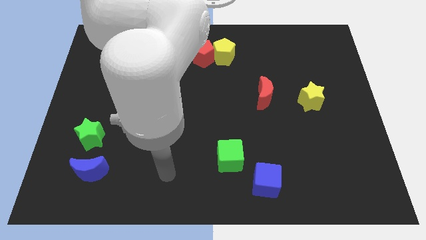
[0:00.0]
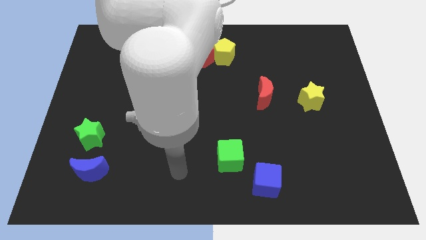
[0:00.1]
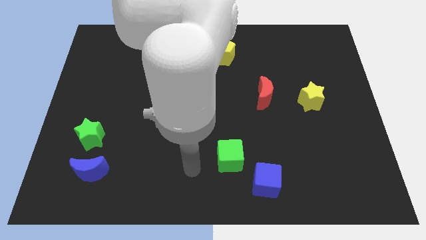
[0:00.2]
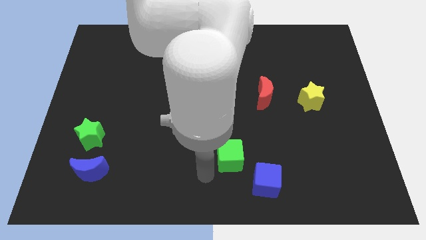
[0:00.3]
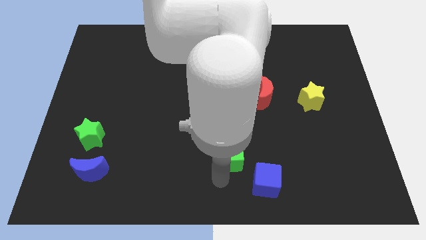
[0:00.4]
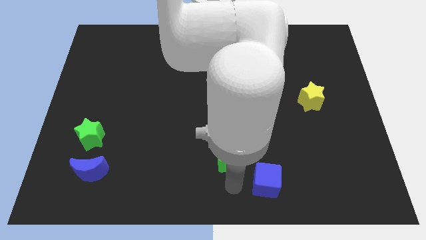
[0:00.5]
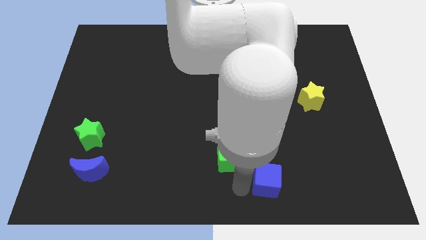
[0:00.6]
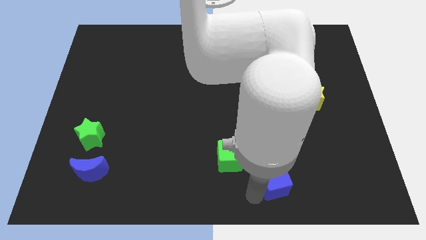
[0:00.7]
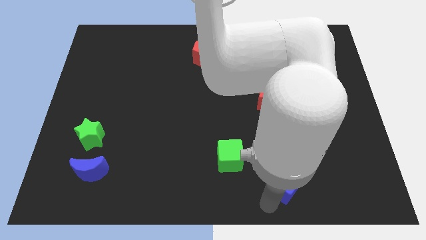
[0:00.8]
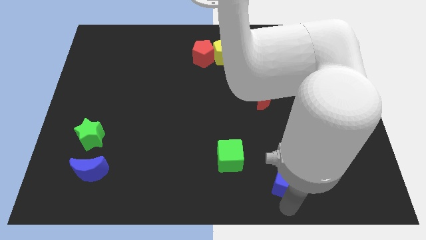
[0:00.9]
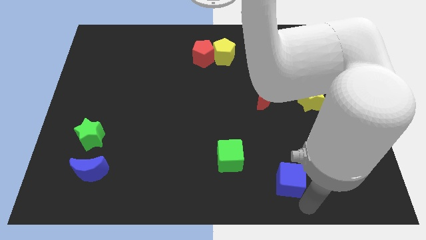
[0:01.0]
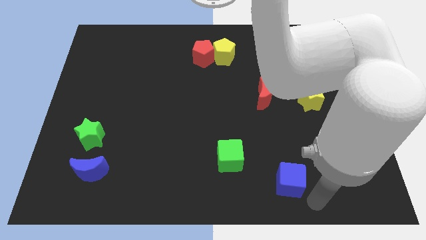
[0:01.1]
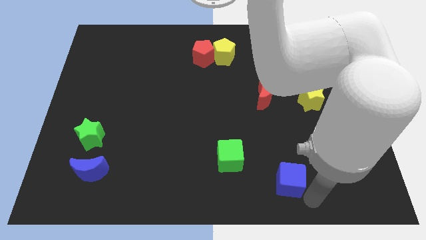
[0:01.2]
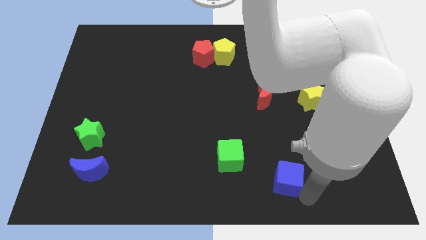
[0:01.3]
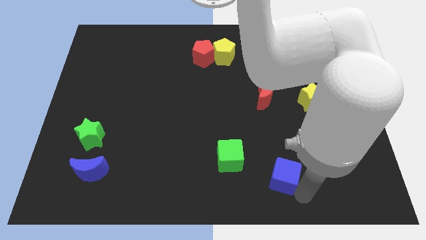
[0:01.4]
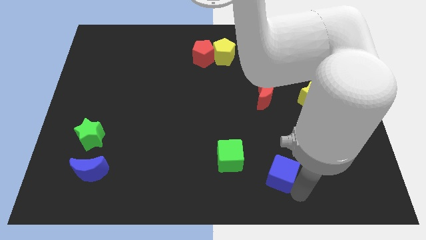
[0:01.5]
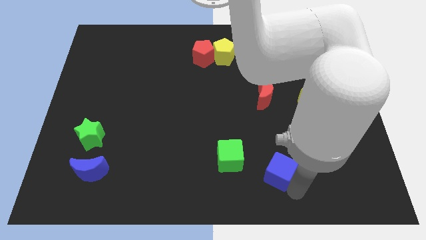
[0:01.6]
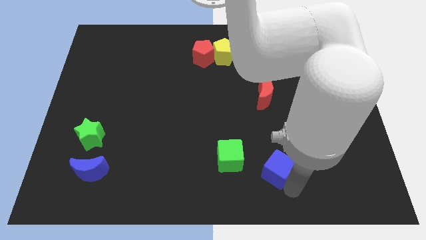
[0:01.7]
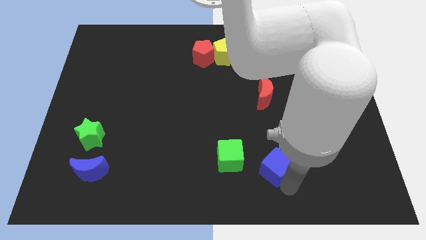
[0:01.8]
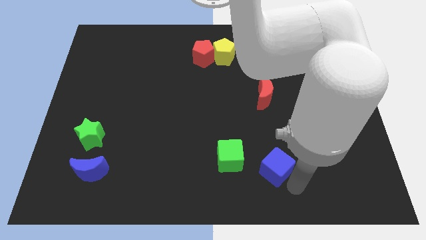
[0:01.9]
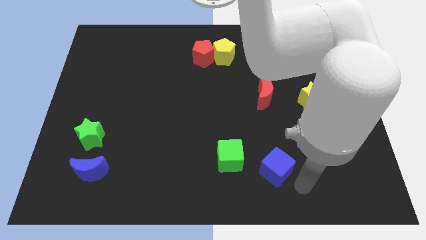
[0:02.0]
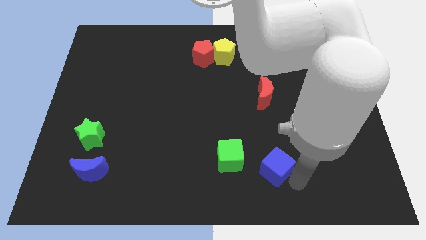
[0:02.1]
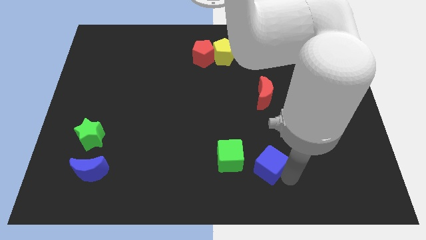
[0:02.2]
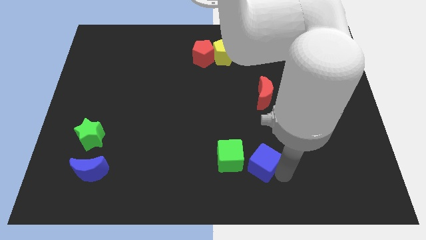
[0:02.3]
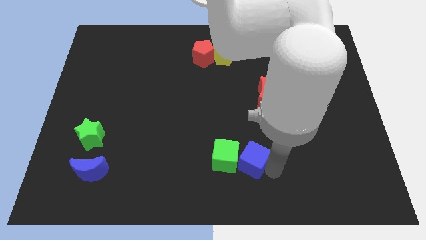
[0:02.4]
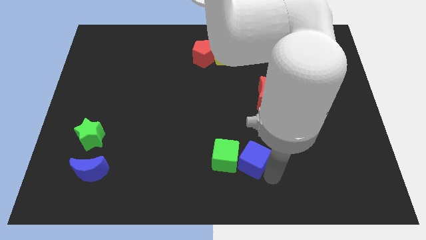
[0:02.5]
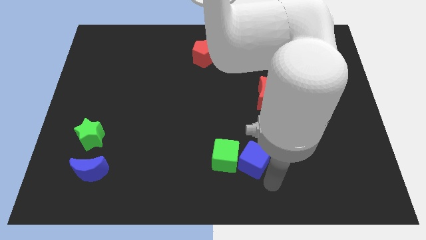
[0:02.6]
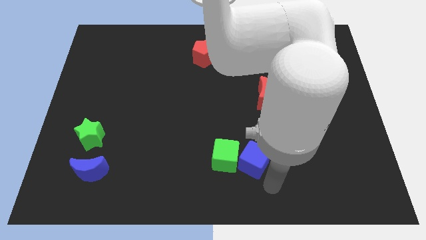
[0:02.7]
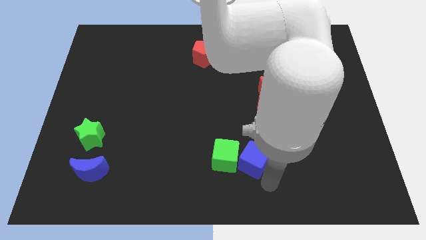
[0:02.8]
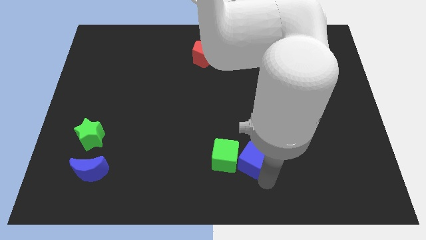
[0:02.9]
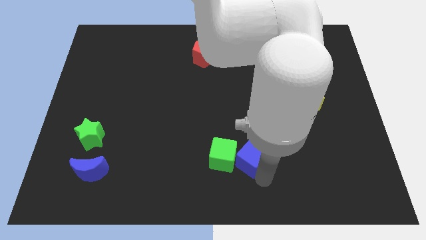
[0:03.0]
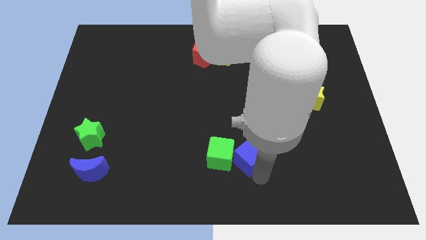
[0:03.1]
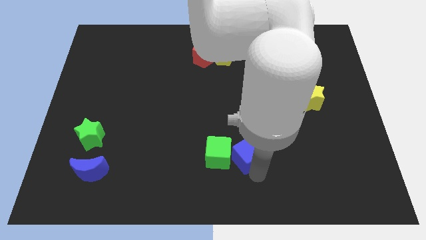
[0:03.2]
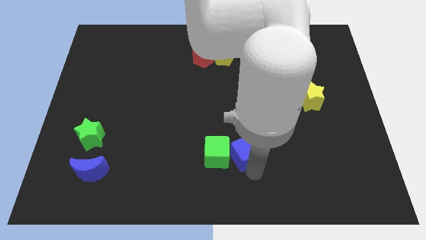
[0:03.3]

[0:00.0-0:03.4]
slightly move the blue cube up and to the left

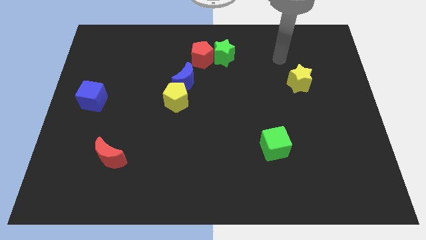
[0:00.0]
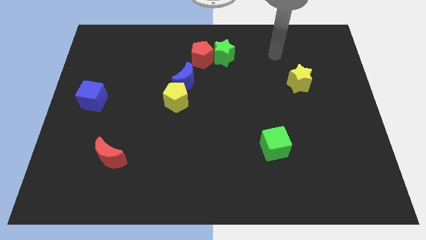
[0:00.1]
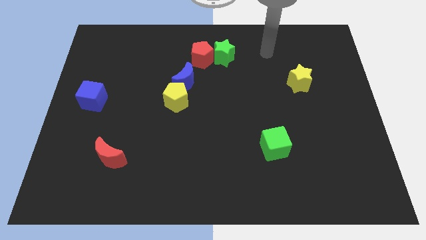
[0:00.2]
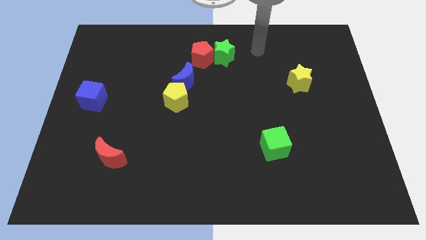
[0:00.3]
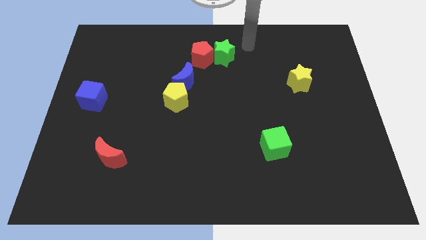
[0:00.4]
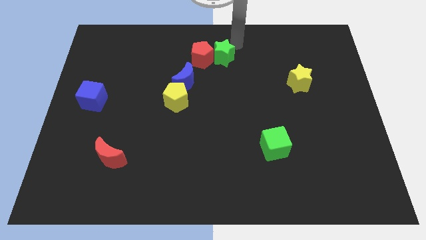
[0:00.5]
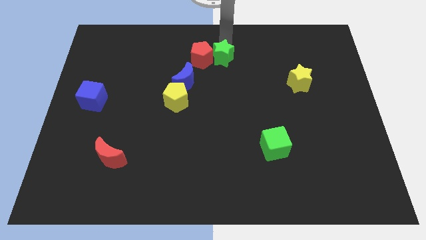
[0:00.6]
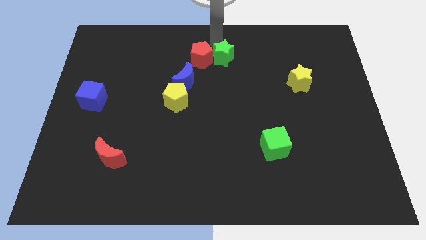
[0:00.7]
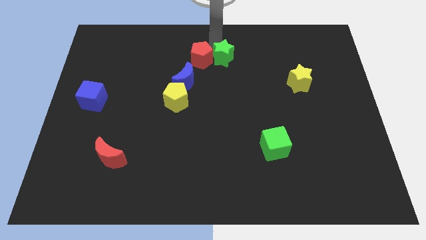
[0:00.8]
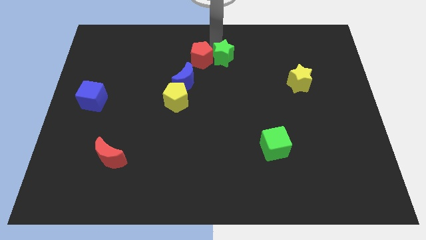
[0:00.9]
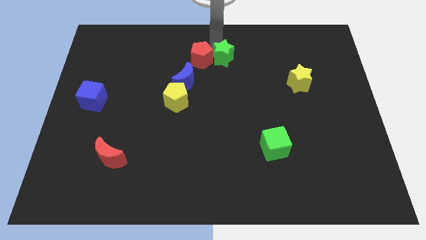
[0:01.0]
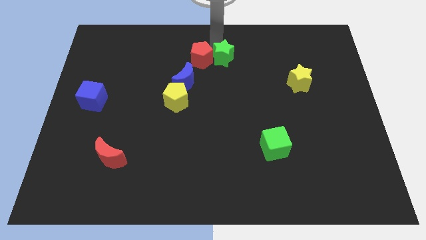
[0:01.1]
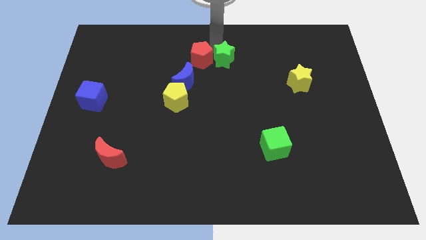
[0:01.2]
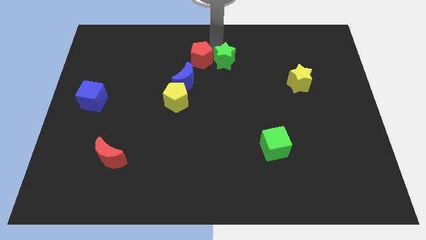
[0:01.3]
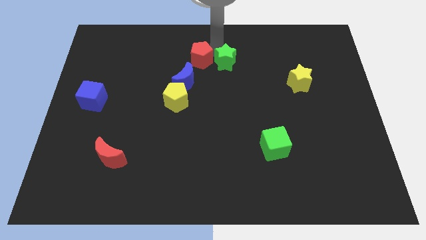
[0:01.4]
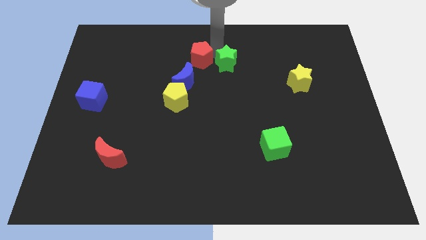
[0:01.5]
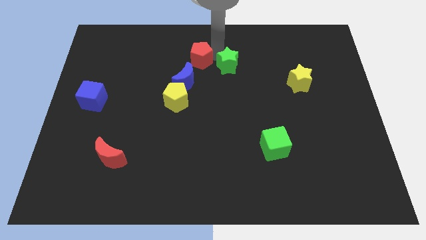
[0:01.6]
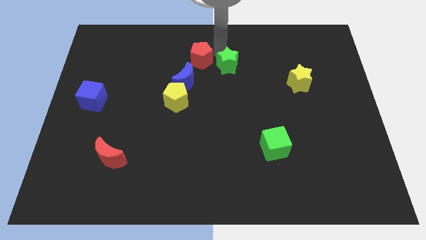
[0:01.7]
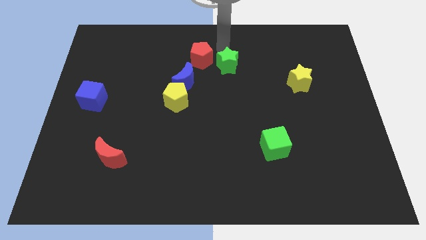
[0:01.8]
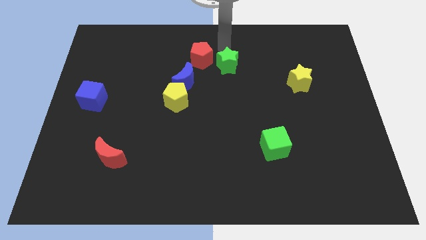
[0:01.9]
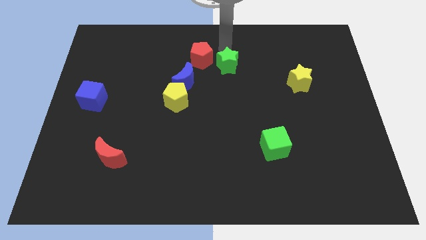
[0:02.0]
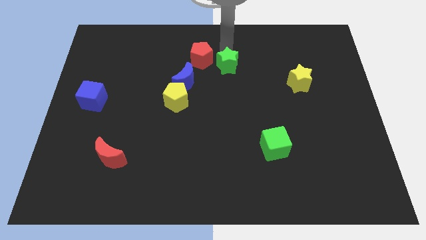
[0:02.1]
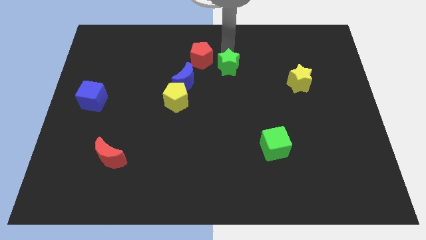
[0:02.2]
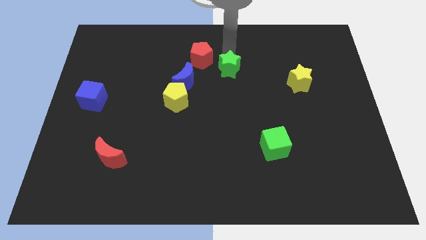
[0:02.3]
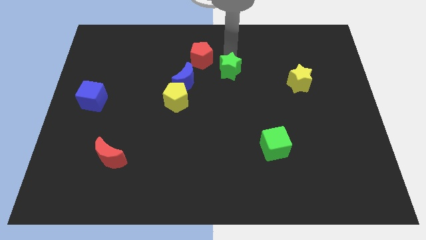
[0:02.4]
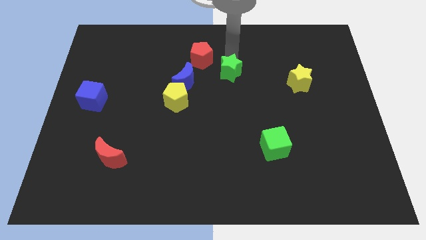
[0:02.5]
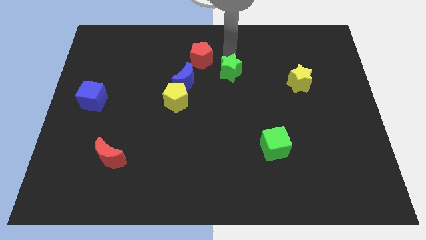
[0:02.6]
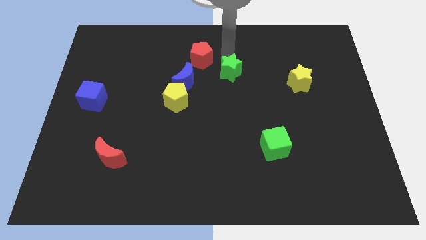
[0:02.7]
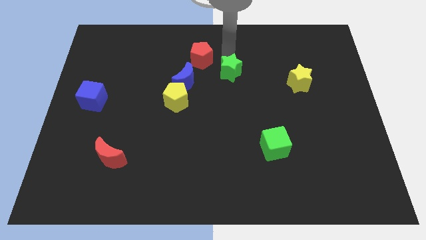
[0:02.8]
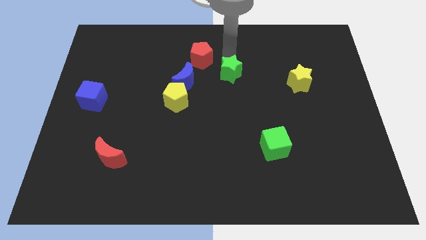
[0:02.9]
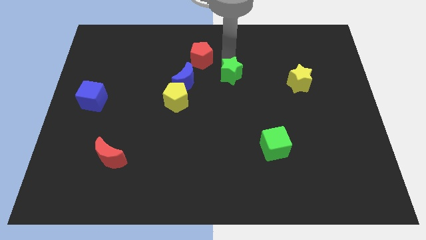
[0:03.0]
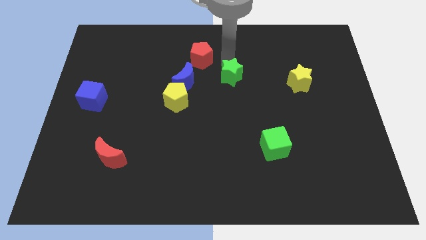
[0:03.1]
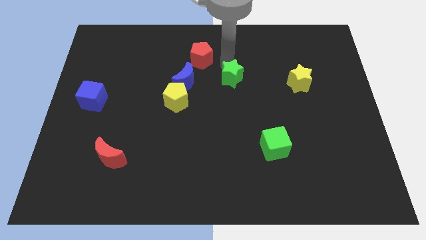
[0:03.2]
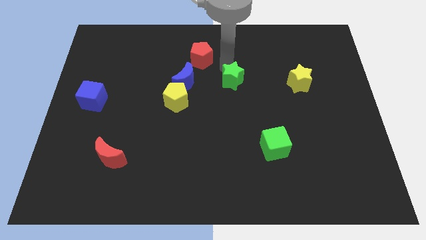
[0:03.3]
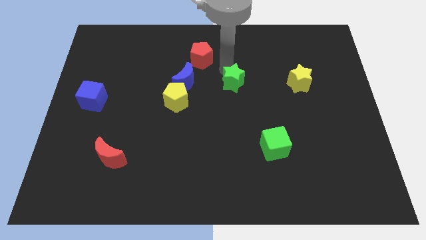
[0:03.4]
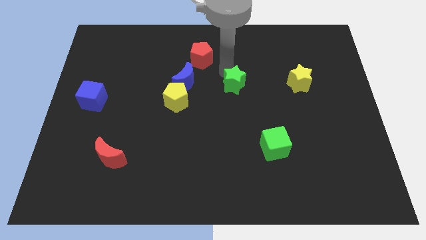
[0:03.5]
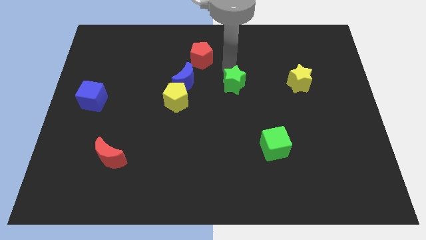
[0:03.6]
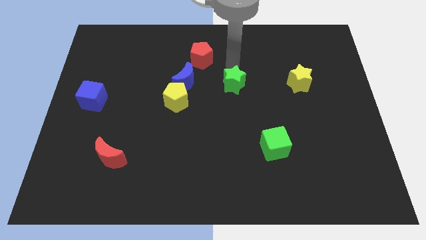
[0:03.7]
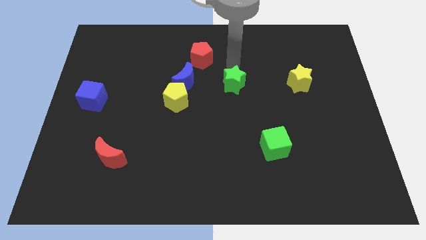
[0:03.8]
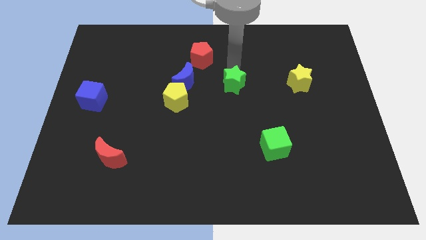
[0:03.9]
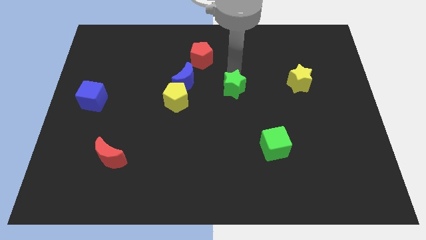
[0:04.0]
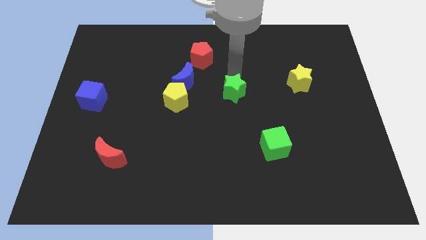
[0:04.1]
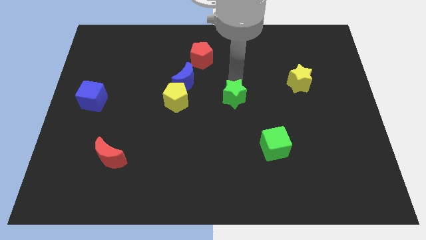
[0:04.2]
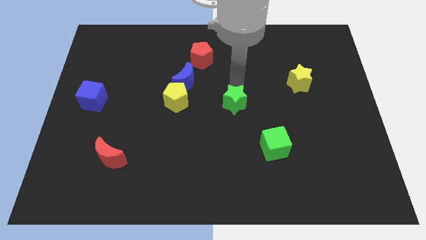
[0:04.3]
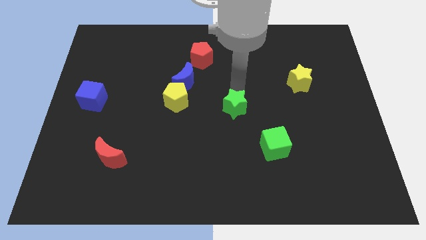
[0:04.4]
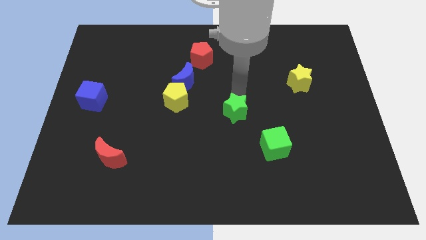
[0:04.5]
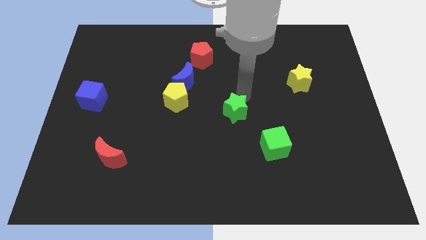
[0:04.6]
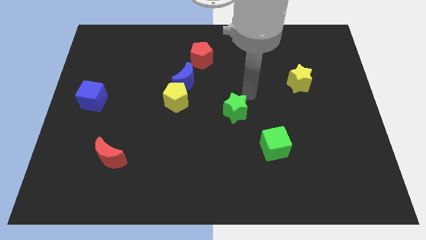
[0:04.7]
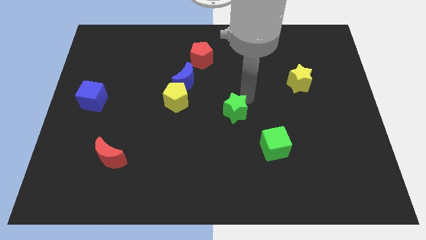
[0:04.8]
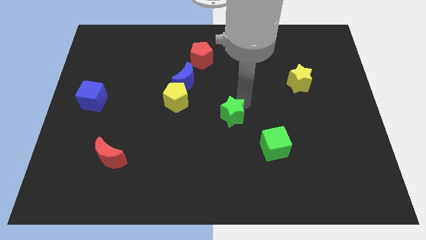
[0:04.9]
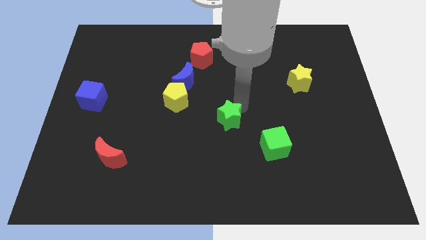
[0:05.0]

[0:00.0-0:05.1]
push the green star downwards

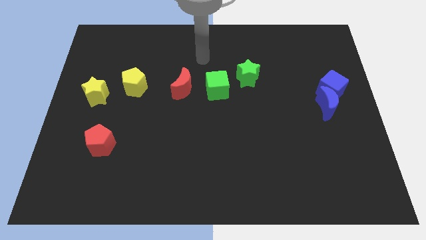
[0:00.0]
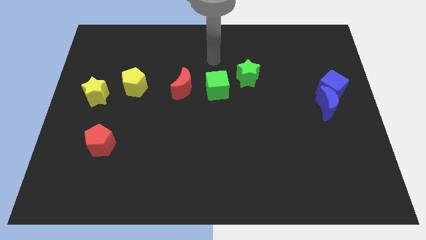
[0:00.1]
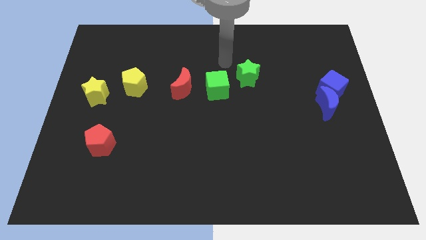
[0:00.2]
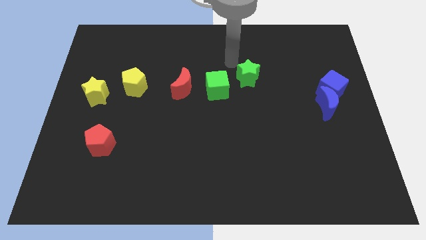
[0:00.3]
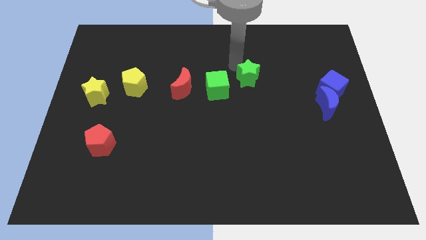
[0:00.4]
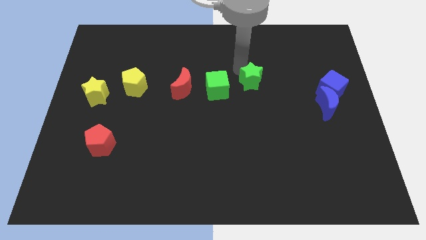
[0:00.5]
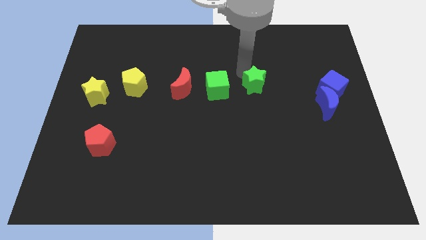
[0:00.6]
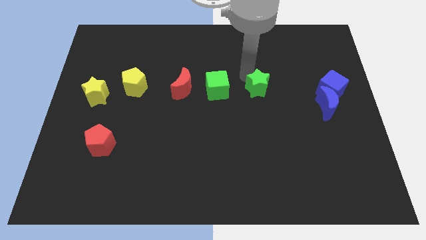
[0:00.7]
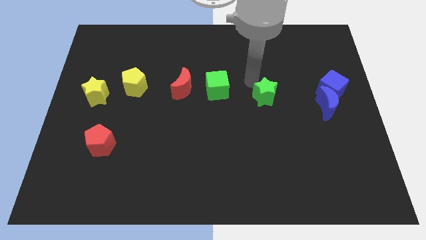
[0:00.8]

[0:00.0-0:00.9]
push the green star a bit downwards and to the right diagonally
